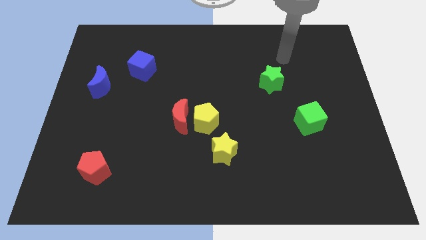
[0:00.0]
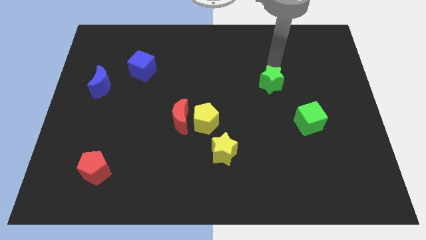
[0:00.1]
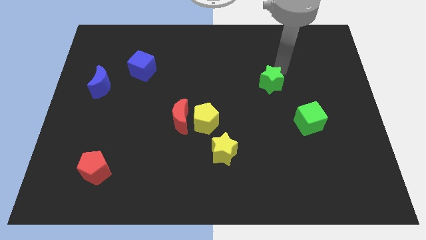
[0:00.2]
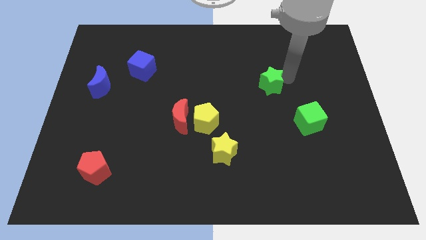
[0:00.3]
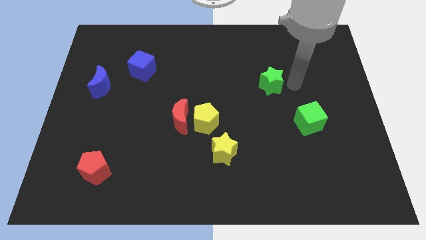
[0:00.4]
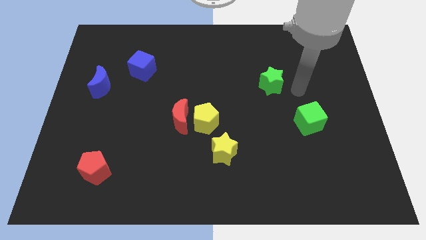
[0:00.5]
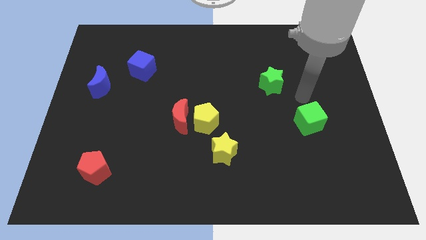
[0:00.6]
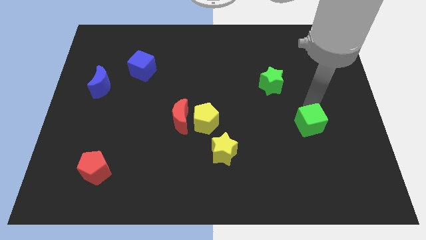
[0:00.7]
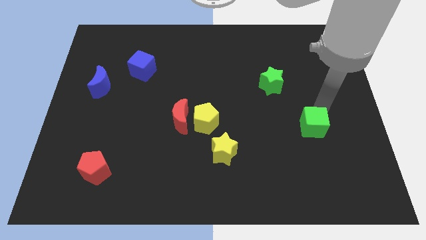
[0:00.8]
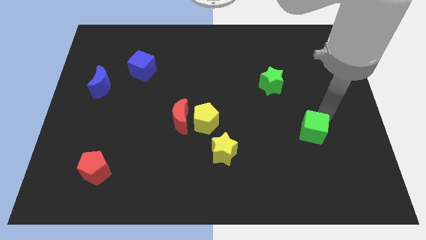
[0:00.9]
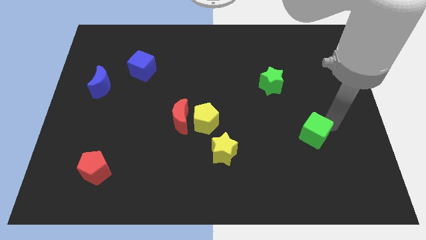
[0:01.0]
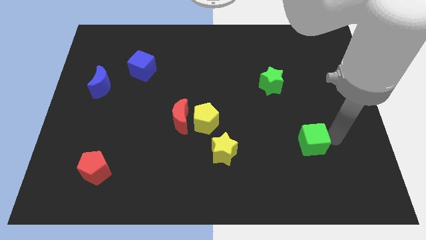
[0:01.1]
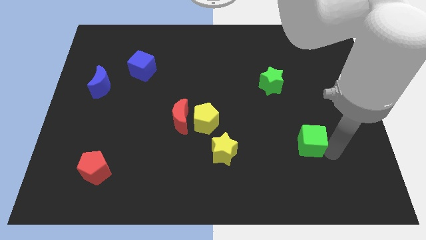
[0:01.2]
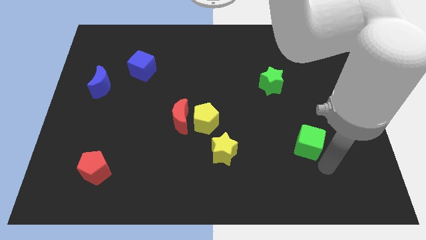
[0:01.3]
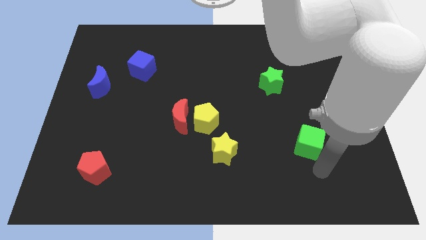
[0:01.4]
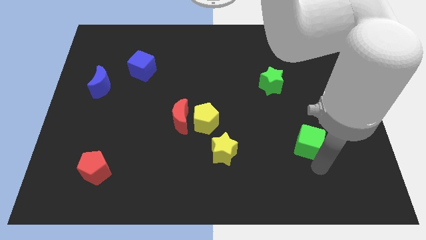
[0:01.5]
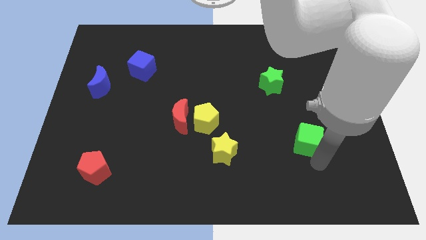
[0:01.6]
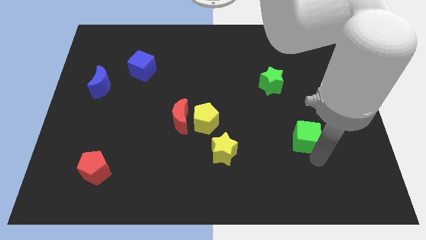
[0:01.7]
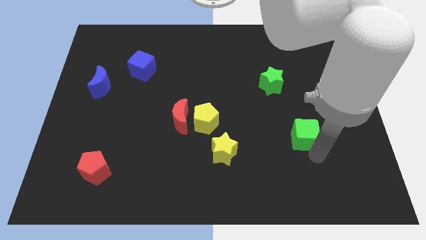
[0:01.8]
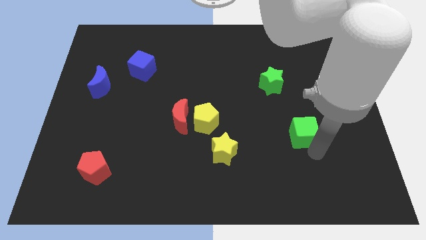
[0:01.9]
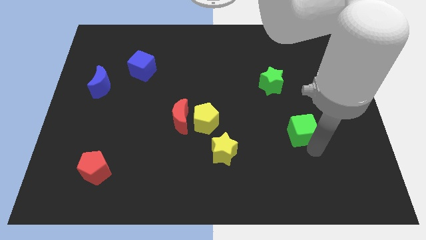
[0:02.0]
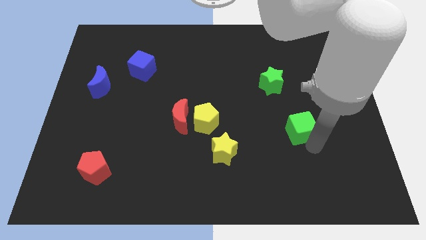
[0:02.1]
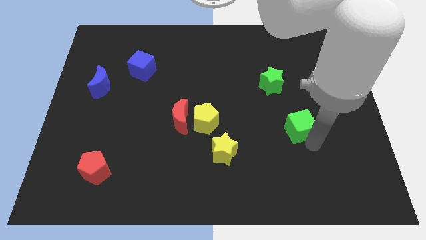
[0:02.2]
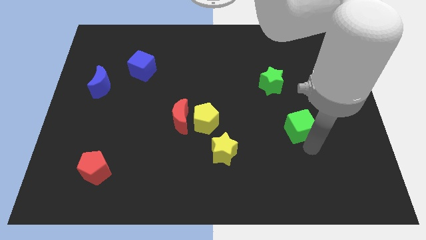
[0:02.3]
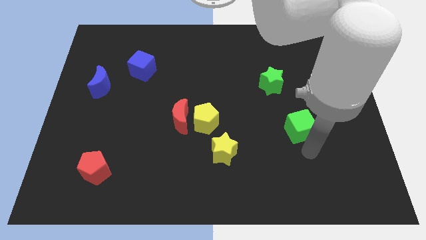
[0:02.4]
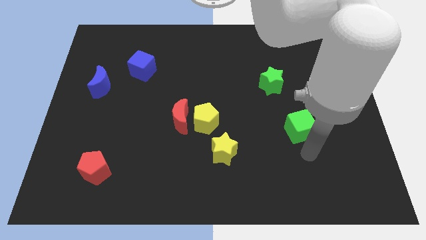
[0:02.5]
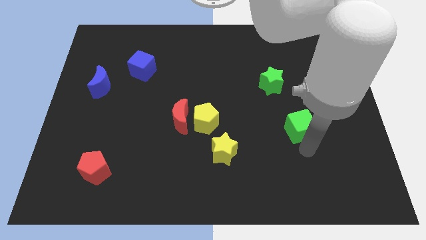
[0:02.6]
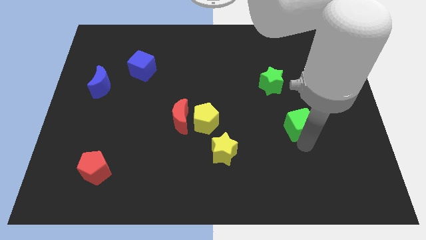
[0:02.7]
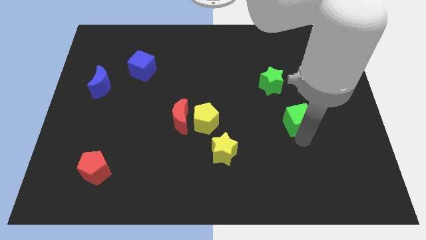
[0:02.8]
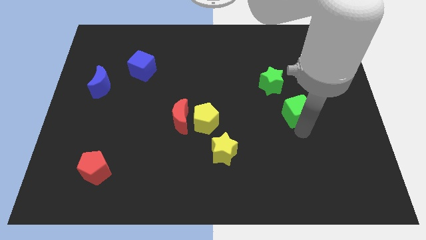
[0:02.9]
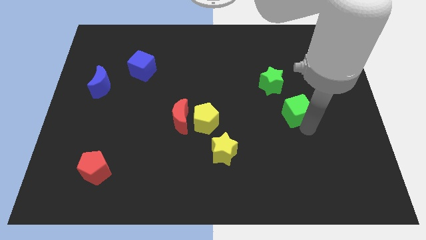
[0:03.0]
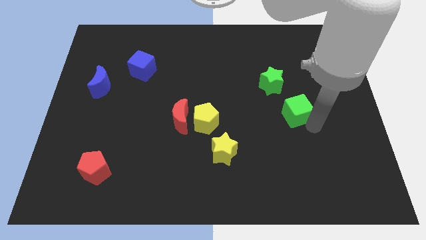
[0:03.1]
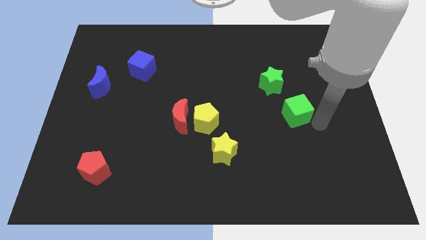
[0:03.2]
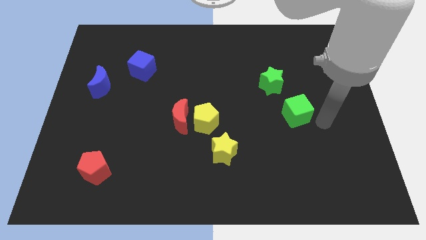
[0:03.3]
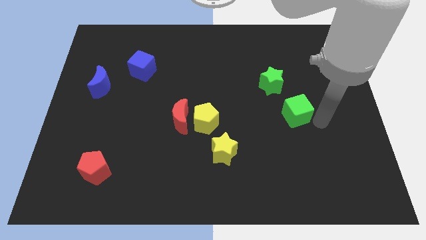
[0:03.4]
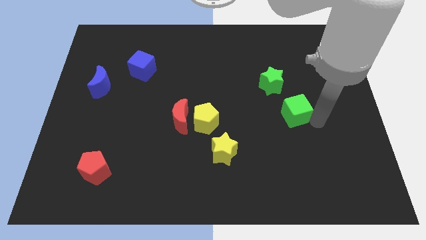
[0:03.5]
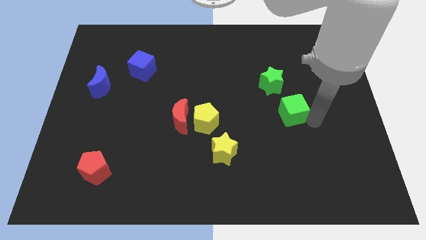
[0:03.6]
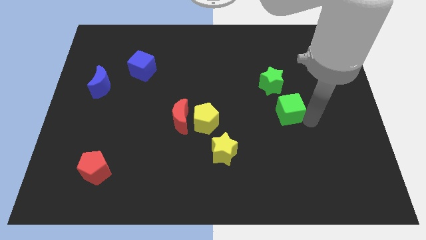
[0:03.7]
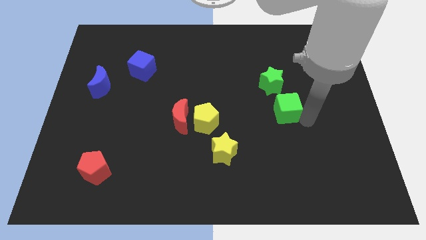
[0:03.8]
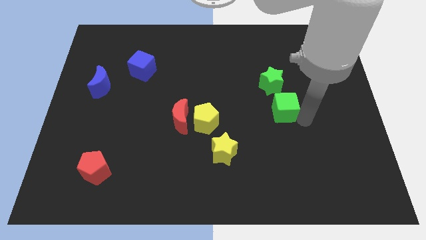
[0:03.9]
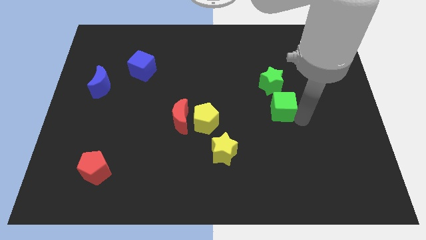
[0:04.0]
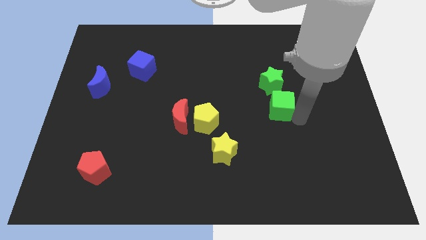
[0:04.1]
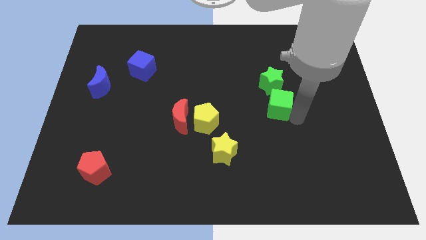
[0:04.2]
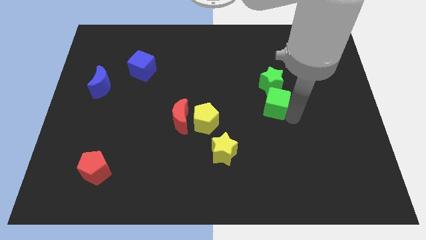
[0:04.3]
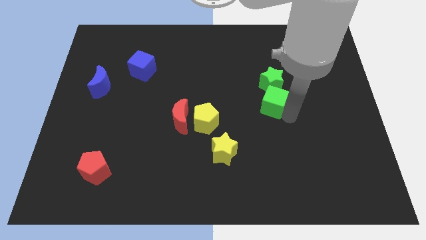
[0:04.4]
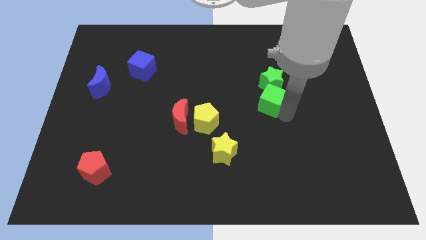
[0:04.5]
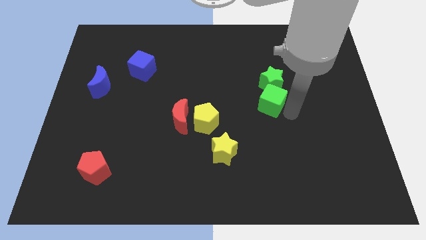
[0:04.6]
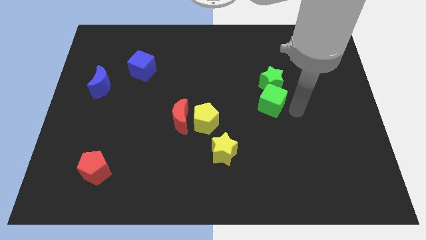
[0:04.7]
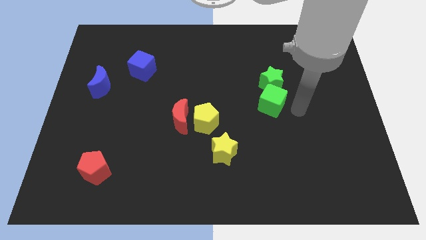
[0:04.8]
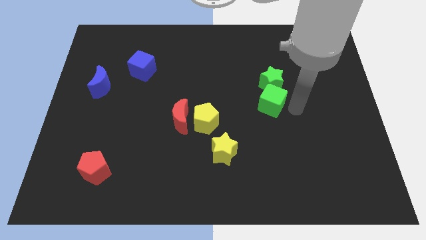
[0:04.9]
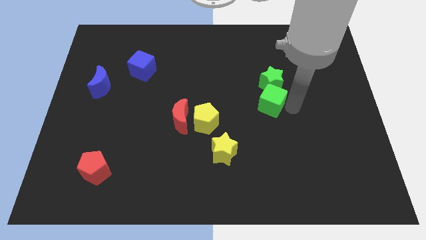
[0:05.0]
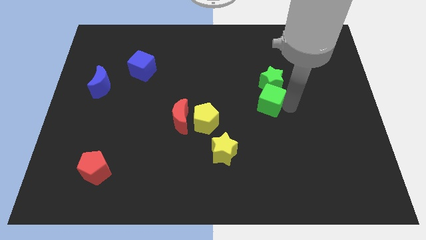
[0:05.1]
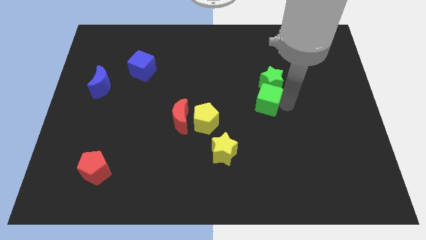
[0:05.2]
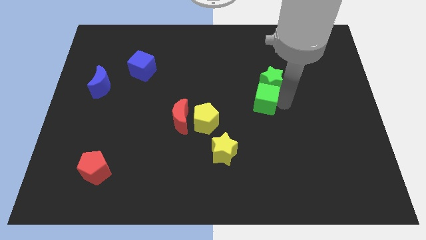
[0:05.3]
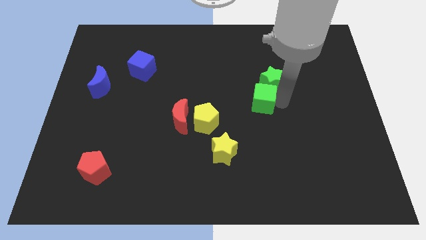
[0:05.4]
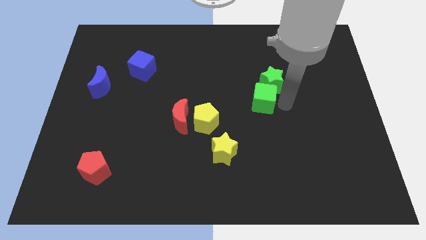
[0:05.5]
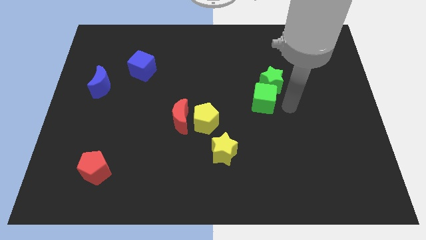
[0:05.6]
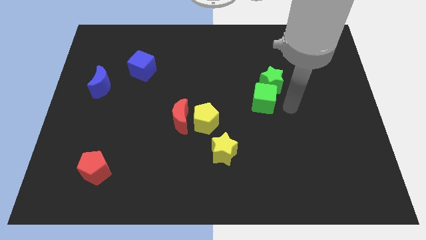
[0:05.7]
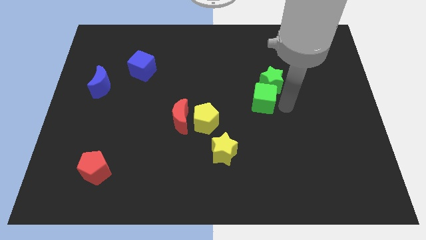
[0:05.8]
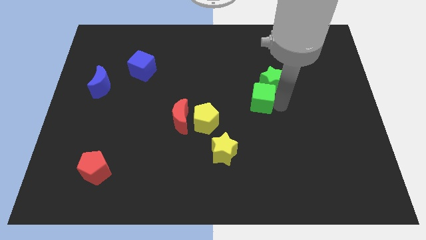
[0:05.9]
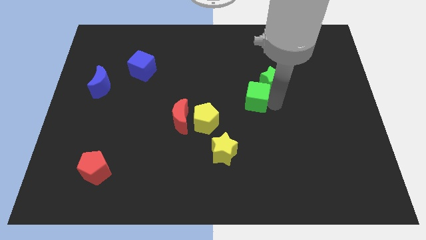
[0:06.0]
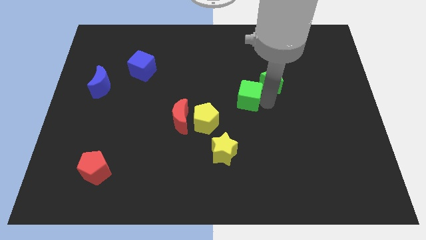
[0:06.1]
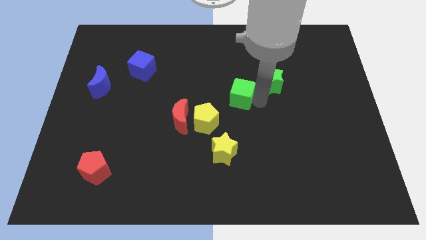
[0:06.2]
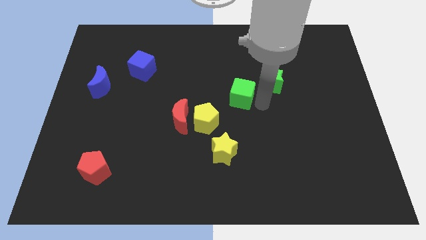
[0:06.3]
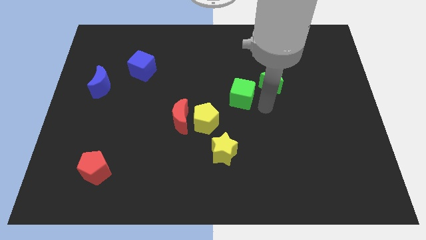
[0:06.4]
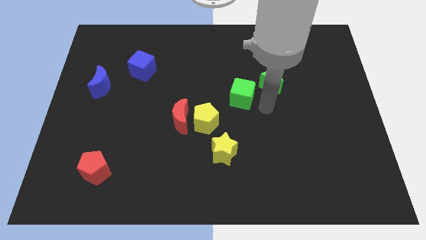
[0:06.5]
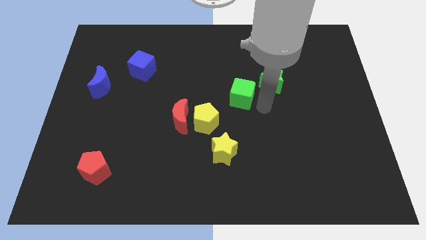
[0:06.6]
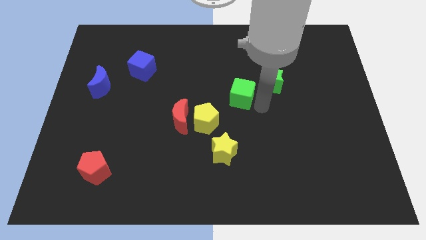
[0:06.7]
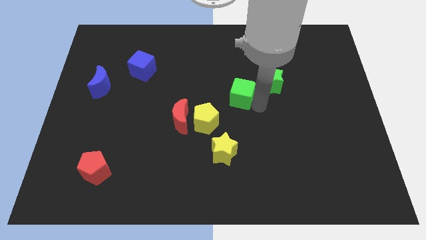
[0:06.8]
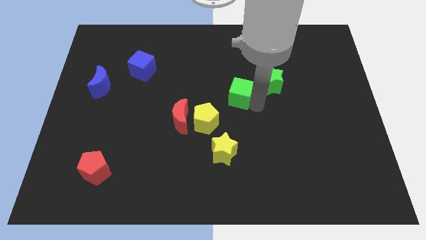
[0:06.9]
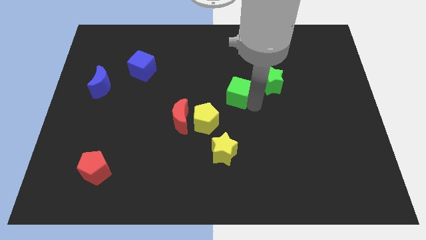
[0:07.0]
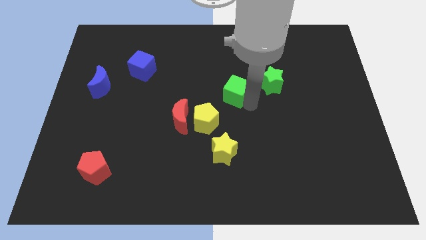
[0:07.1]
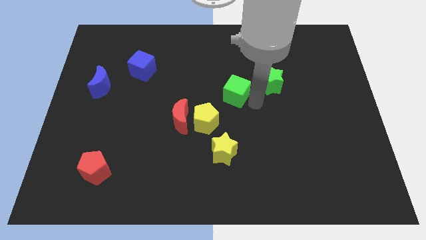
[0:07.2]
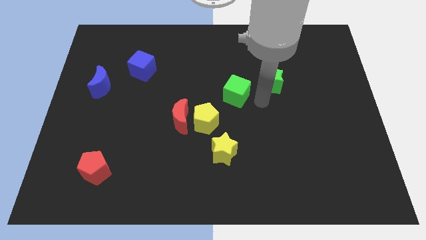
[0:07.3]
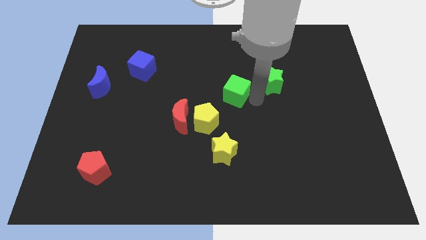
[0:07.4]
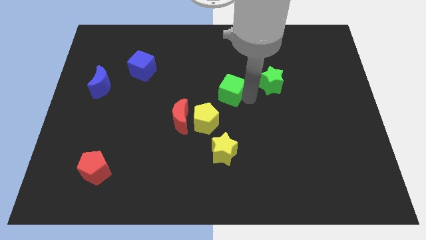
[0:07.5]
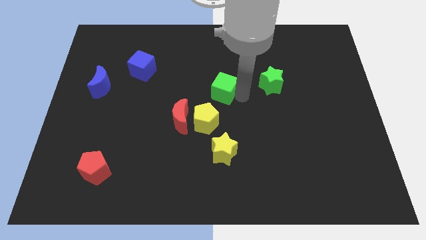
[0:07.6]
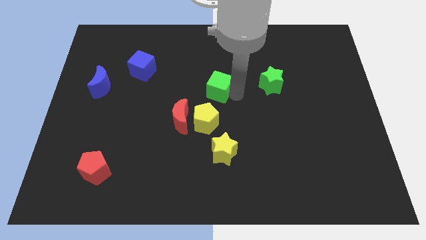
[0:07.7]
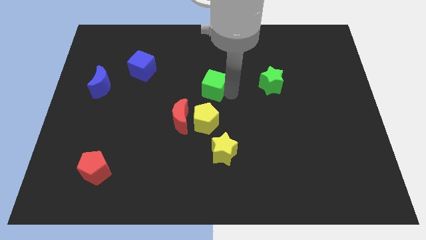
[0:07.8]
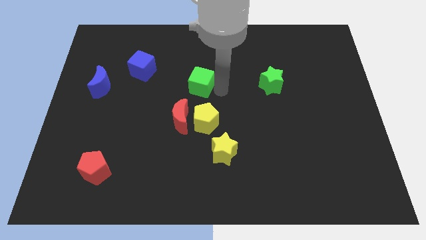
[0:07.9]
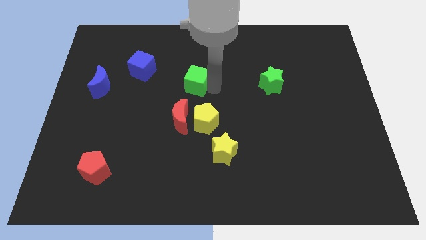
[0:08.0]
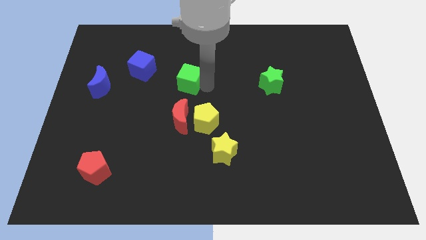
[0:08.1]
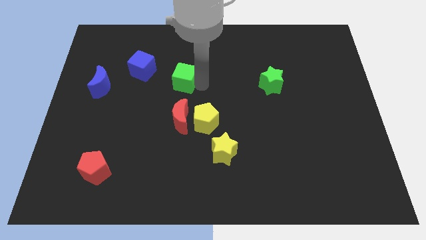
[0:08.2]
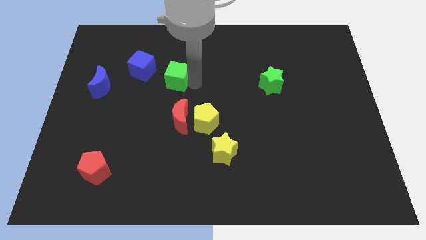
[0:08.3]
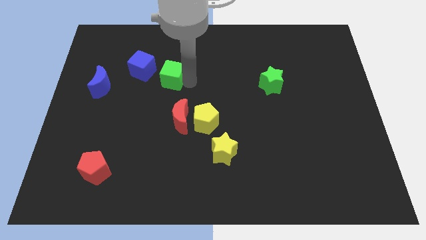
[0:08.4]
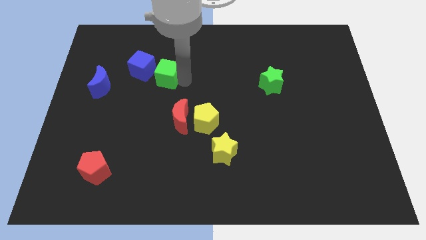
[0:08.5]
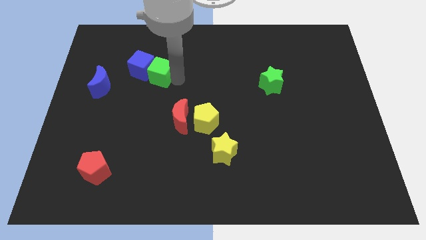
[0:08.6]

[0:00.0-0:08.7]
put the green cube to the blue cube
